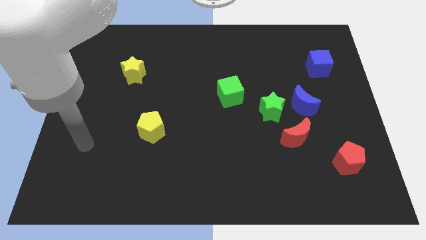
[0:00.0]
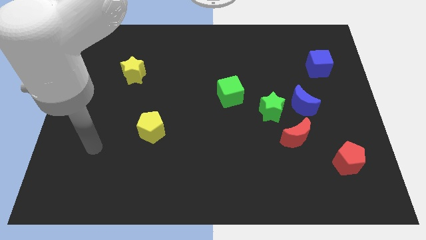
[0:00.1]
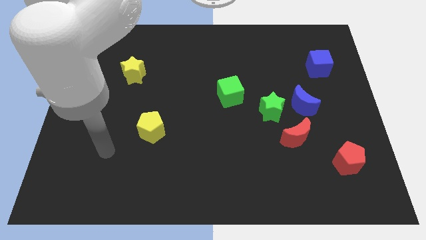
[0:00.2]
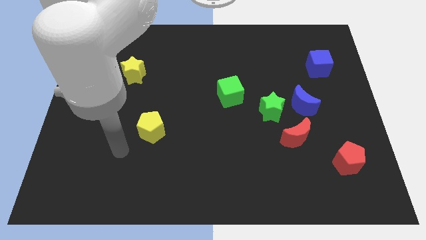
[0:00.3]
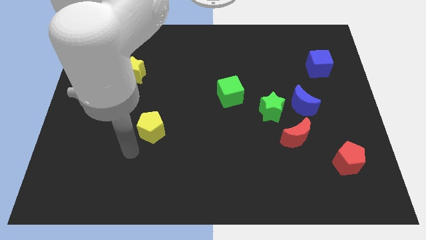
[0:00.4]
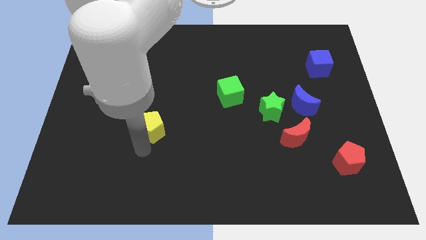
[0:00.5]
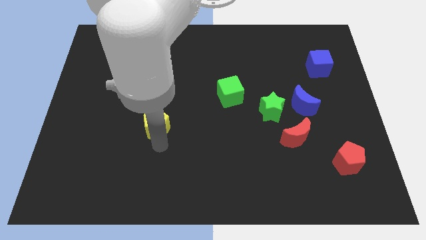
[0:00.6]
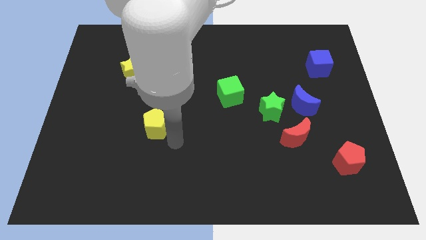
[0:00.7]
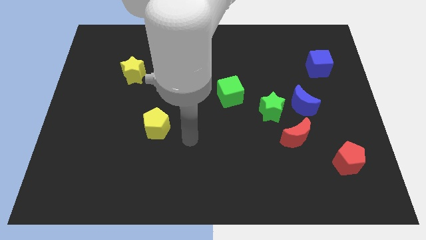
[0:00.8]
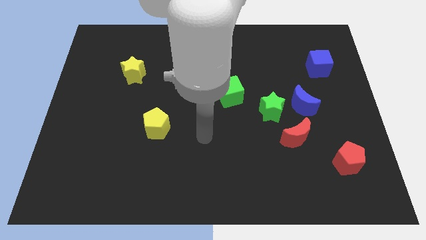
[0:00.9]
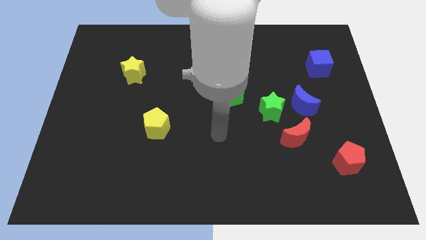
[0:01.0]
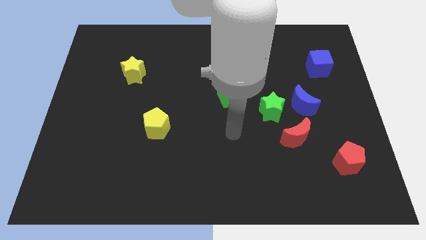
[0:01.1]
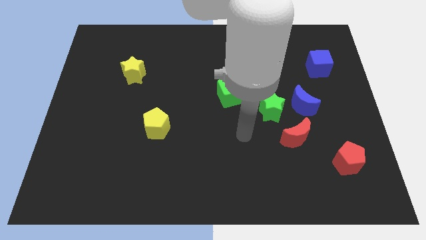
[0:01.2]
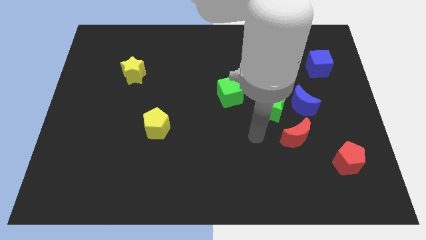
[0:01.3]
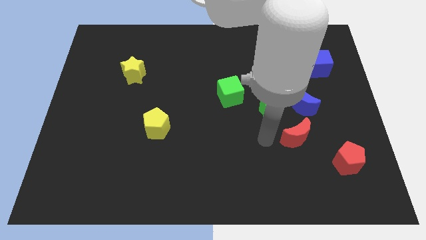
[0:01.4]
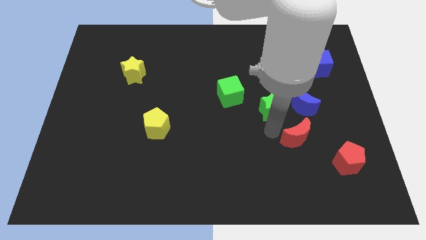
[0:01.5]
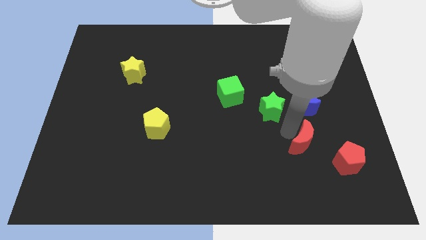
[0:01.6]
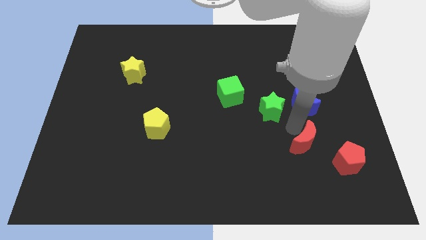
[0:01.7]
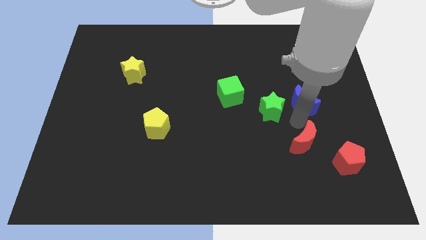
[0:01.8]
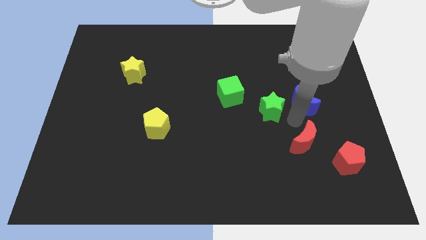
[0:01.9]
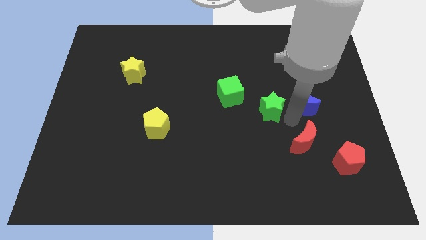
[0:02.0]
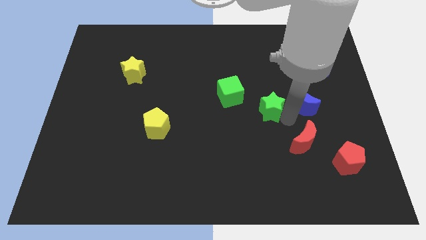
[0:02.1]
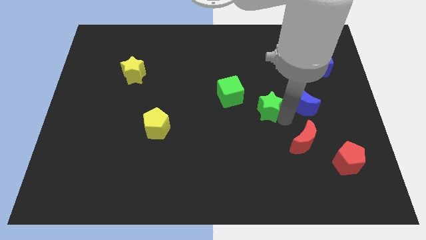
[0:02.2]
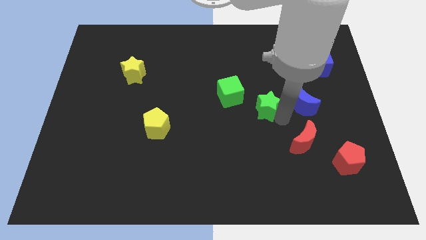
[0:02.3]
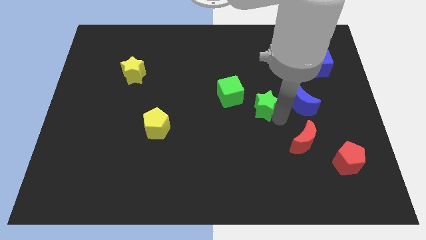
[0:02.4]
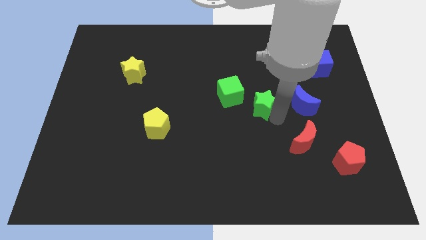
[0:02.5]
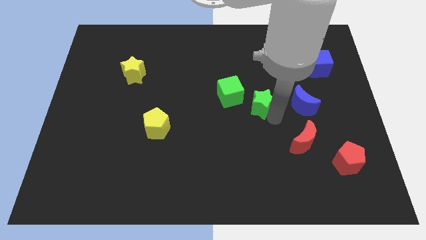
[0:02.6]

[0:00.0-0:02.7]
move the green star away from the blue moon and red moon

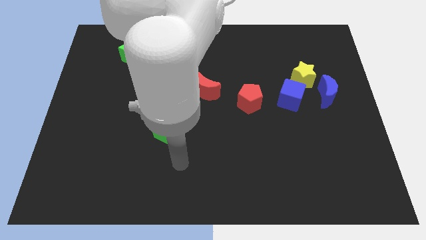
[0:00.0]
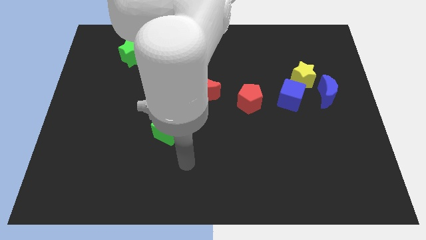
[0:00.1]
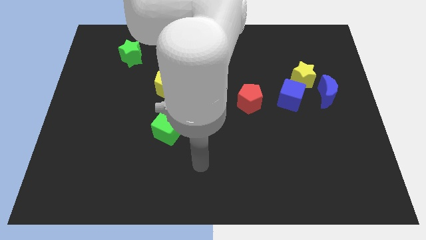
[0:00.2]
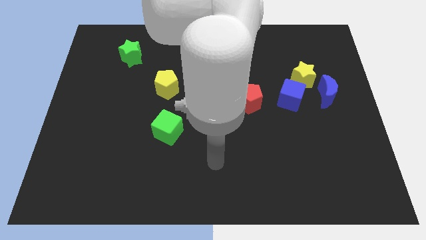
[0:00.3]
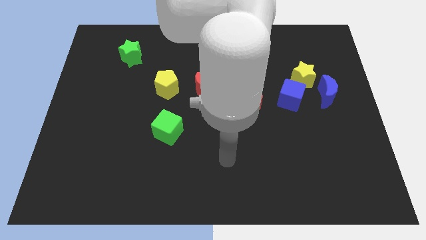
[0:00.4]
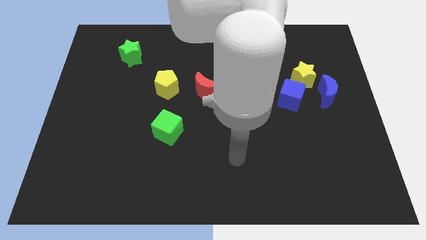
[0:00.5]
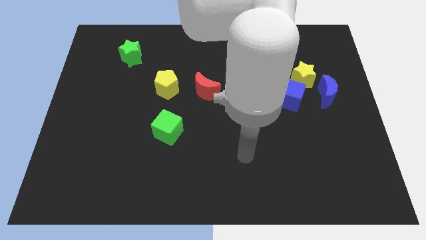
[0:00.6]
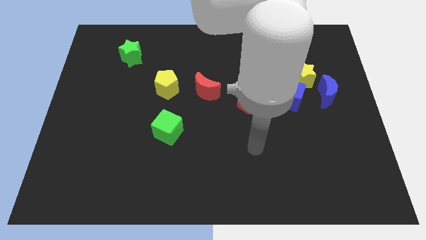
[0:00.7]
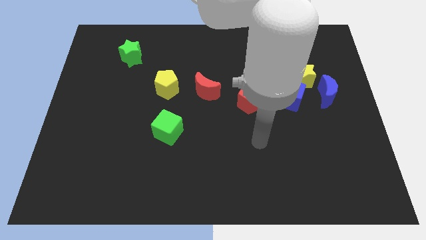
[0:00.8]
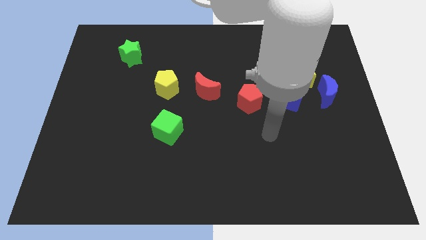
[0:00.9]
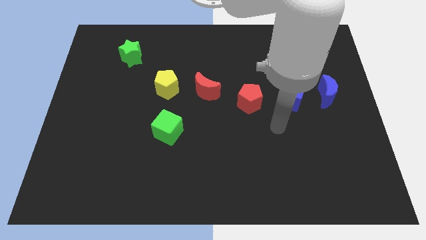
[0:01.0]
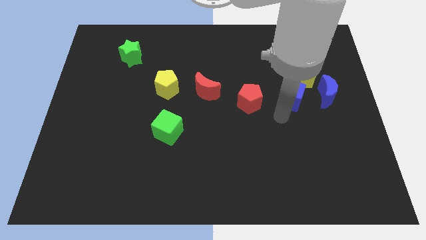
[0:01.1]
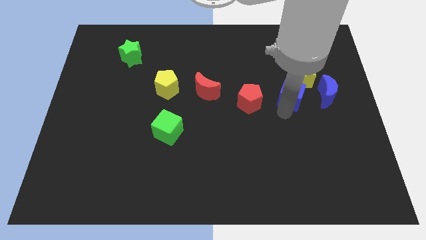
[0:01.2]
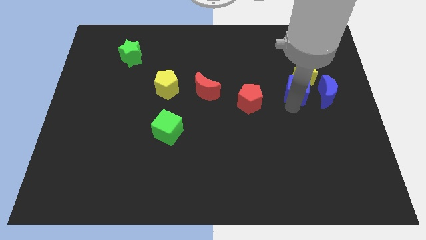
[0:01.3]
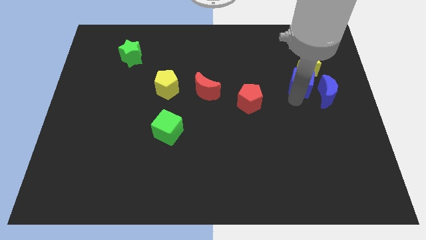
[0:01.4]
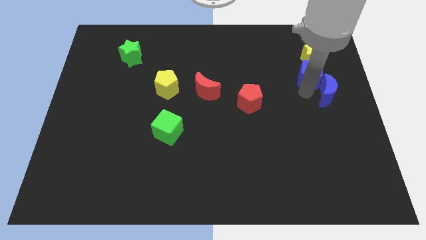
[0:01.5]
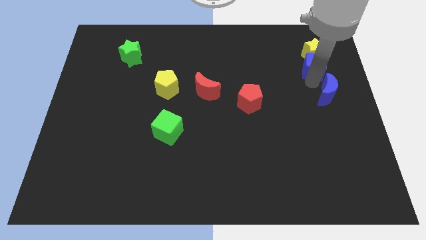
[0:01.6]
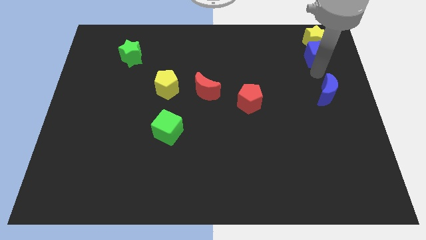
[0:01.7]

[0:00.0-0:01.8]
move the yellow star away from the blue moon and blue cube

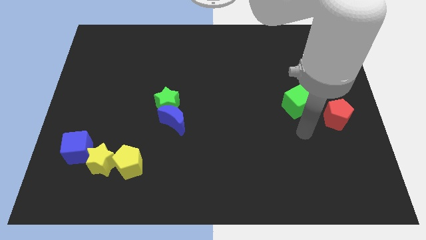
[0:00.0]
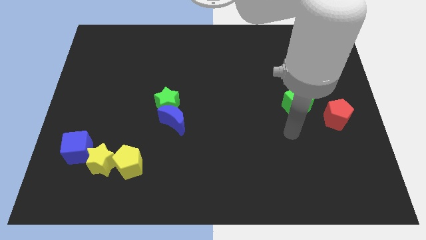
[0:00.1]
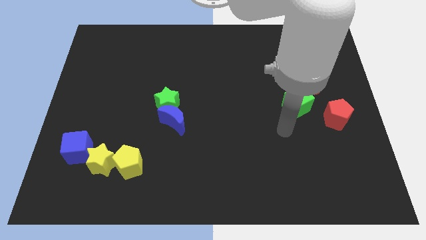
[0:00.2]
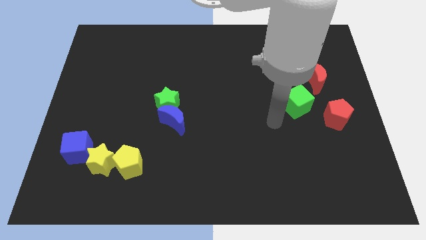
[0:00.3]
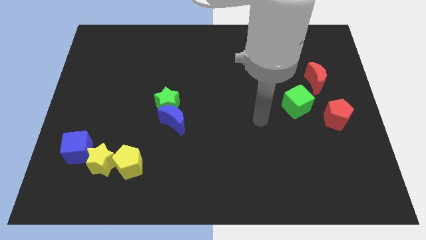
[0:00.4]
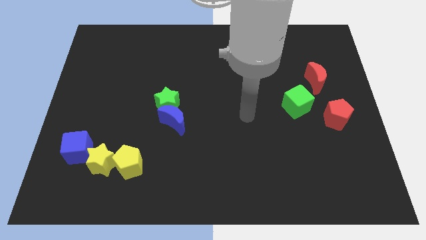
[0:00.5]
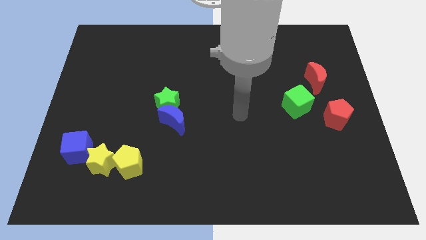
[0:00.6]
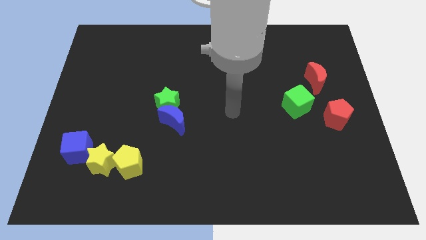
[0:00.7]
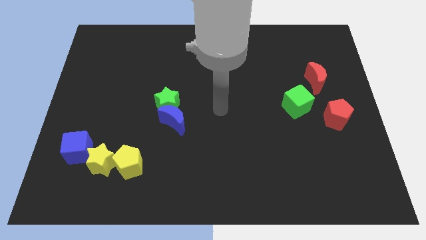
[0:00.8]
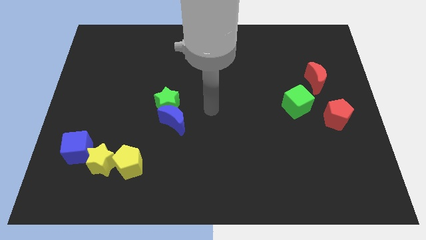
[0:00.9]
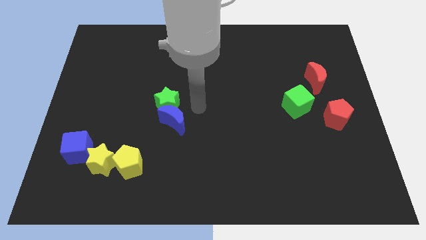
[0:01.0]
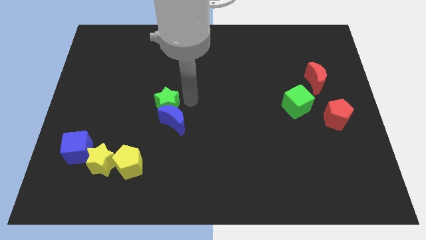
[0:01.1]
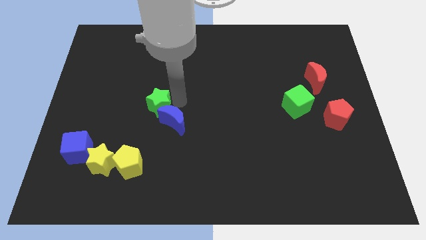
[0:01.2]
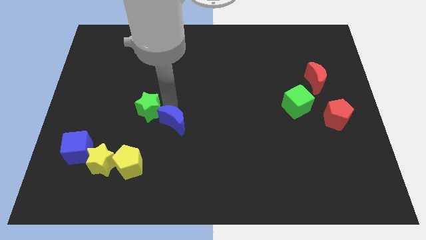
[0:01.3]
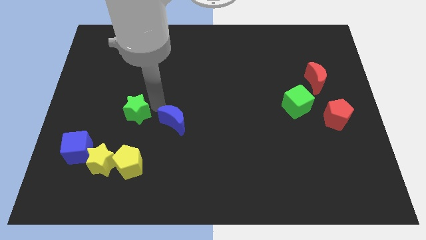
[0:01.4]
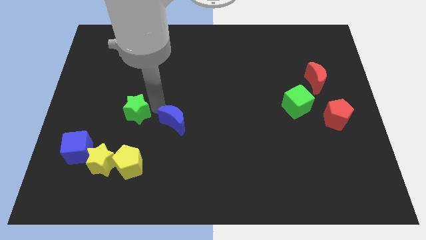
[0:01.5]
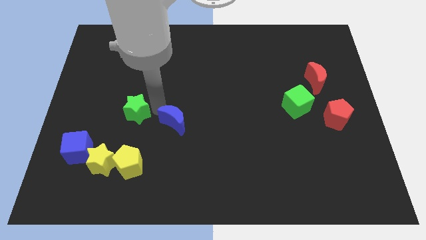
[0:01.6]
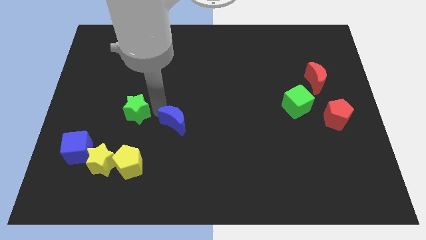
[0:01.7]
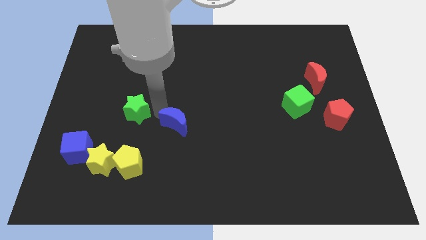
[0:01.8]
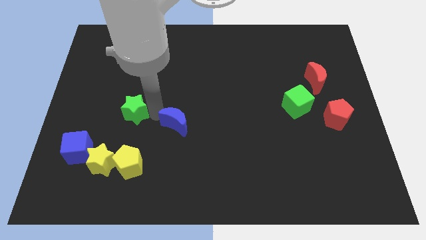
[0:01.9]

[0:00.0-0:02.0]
move the blue moon away from the green star

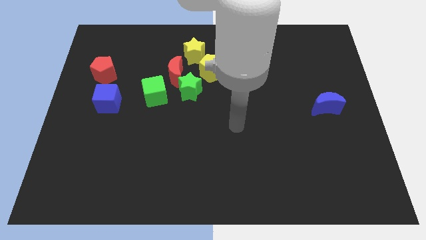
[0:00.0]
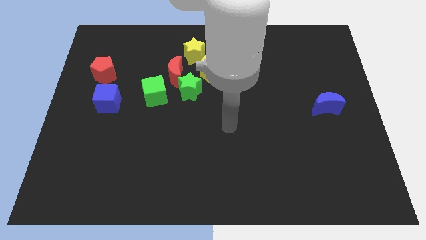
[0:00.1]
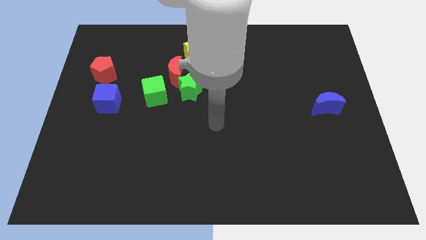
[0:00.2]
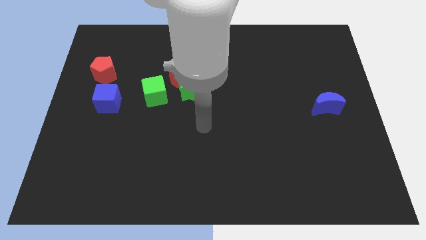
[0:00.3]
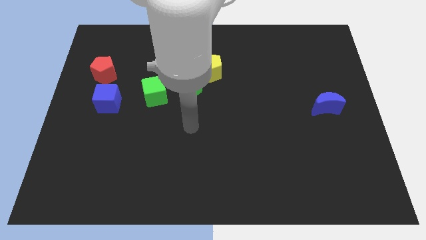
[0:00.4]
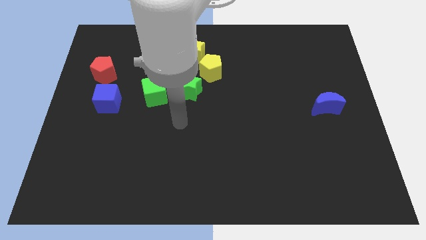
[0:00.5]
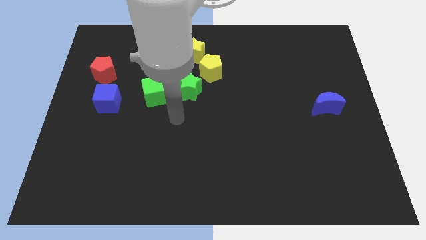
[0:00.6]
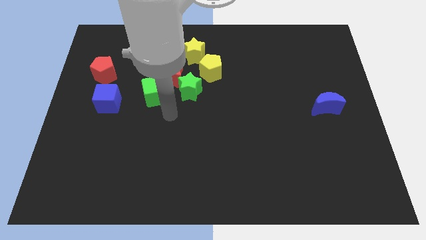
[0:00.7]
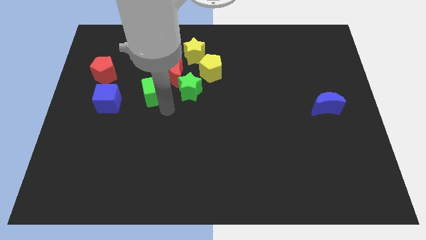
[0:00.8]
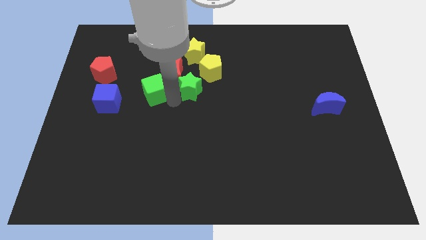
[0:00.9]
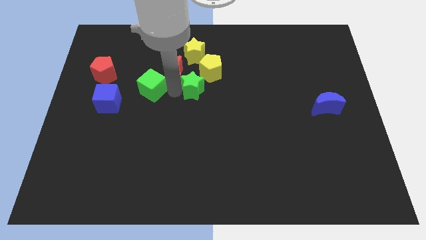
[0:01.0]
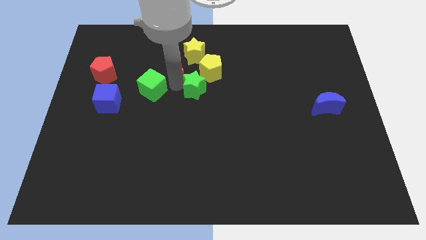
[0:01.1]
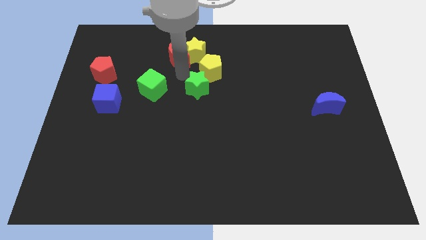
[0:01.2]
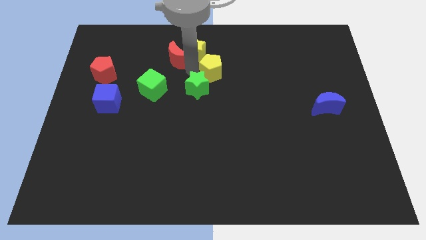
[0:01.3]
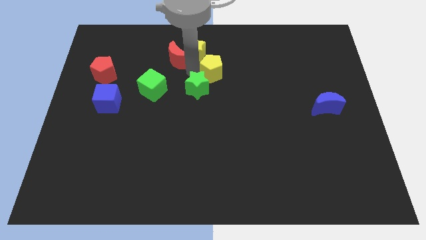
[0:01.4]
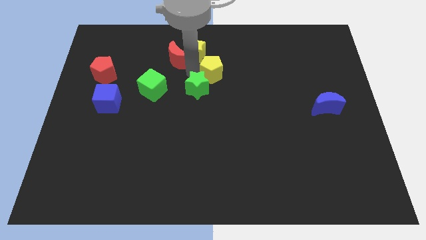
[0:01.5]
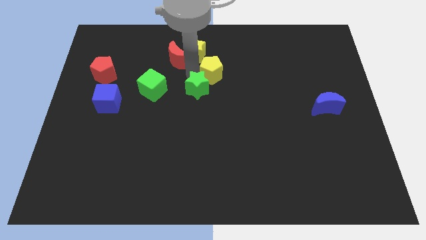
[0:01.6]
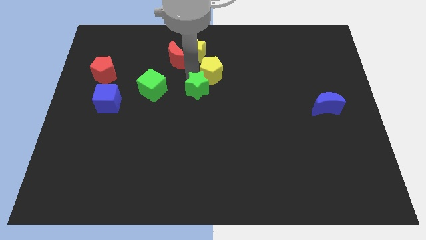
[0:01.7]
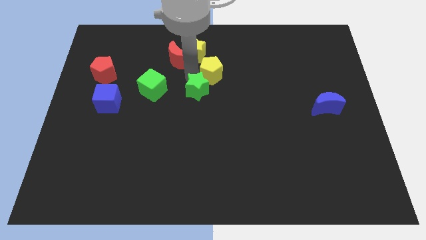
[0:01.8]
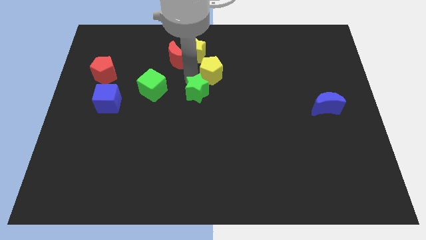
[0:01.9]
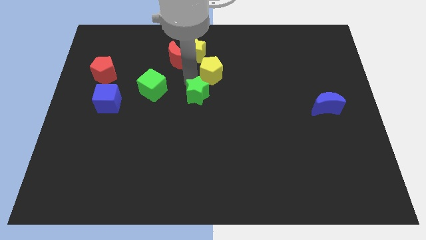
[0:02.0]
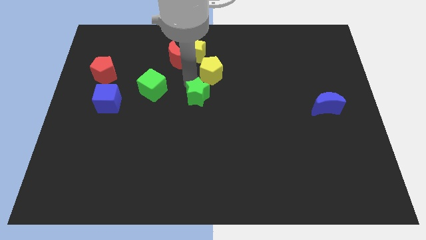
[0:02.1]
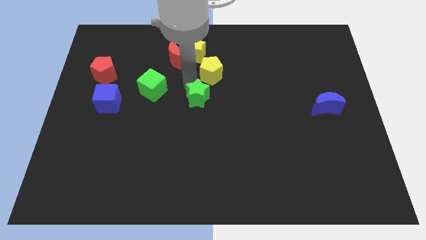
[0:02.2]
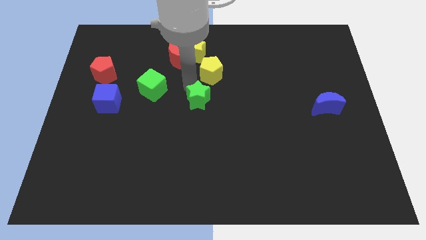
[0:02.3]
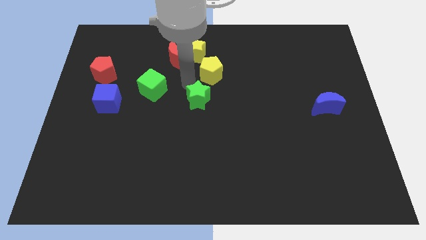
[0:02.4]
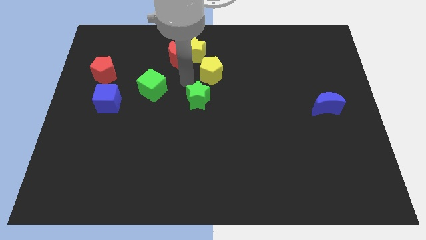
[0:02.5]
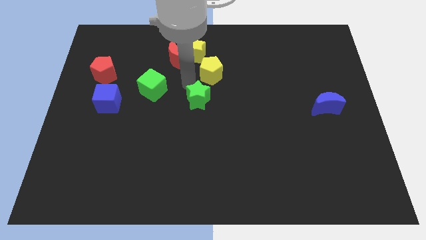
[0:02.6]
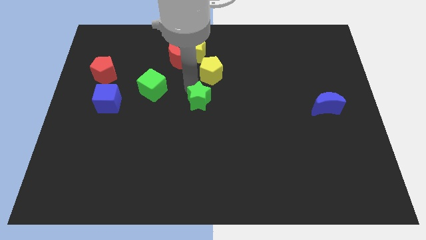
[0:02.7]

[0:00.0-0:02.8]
separate the green star from the group

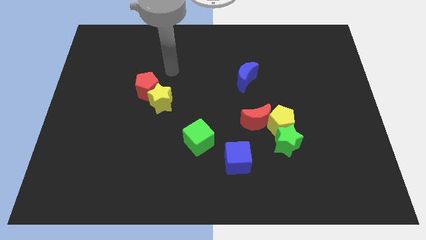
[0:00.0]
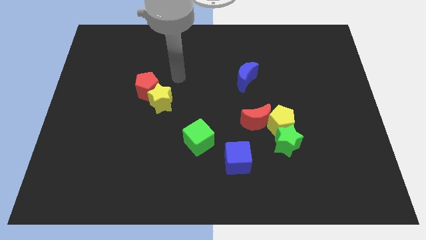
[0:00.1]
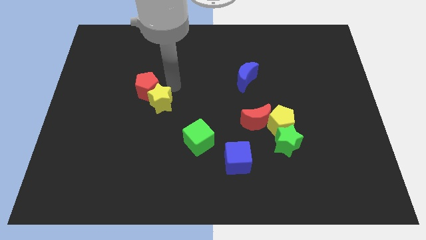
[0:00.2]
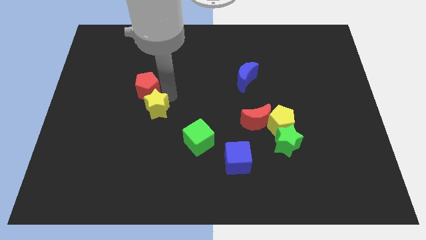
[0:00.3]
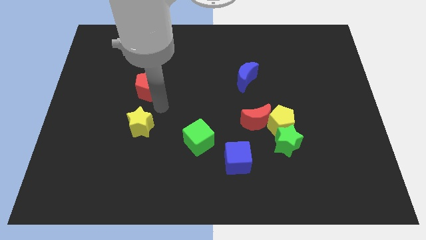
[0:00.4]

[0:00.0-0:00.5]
separate the red pentagon from the yellow star
